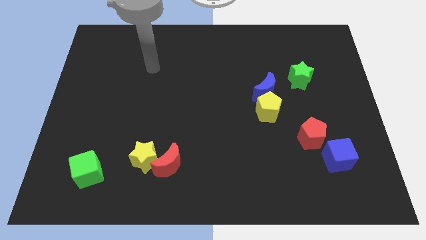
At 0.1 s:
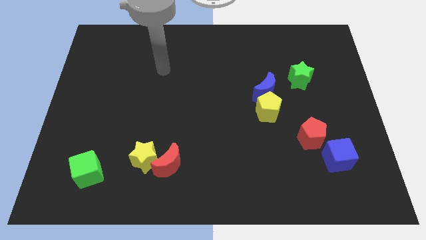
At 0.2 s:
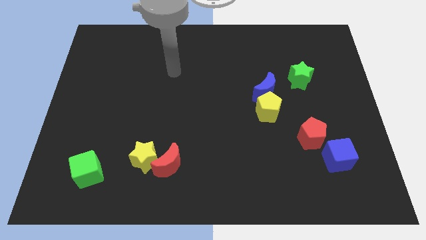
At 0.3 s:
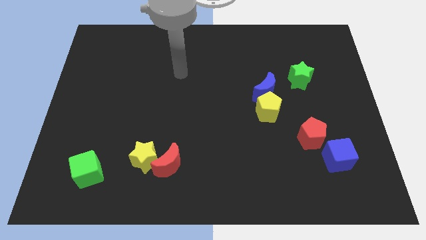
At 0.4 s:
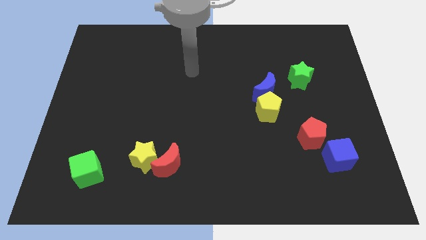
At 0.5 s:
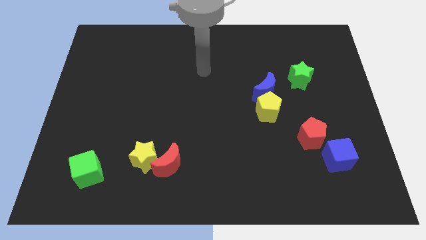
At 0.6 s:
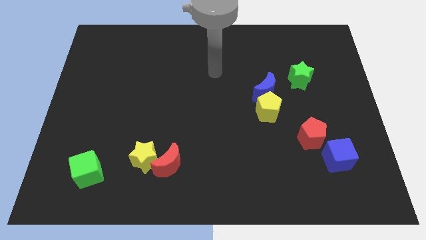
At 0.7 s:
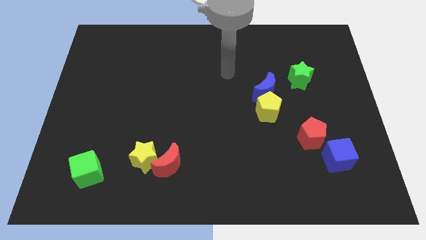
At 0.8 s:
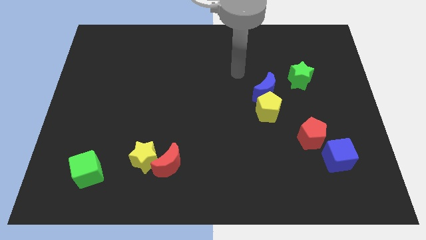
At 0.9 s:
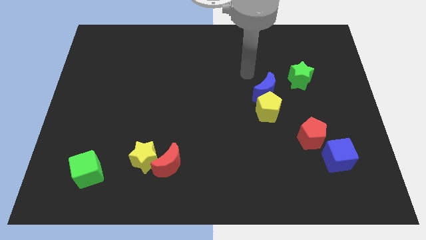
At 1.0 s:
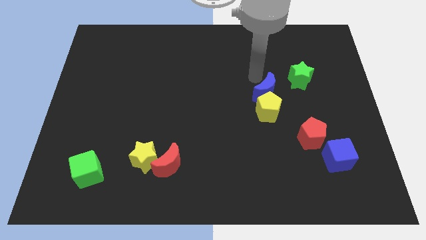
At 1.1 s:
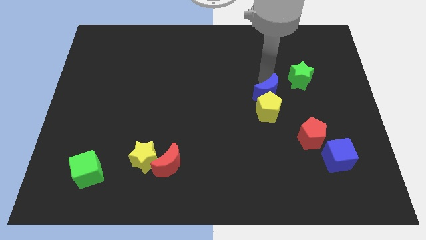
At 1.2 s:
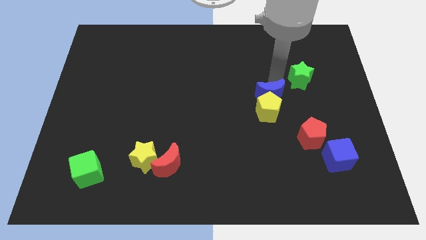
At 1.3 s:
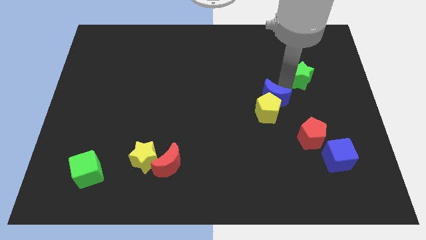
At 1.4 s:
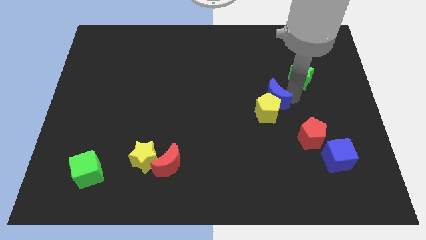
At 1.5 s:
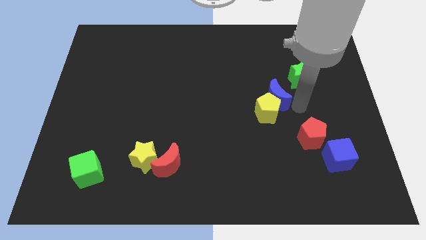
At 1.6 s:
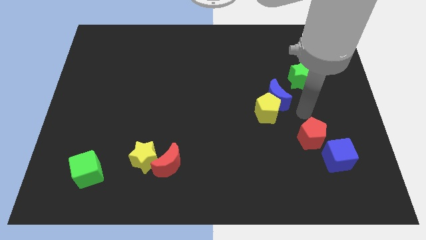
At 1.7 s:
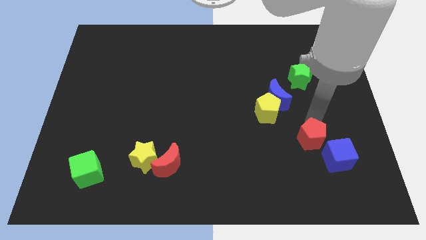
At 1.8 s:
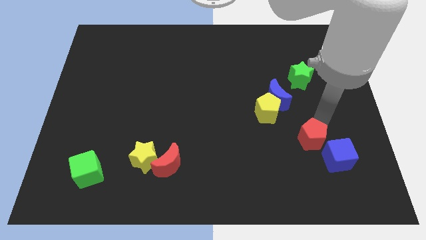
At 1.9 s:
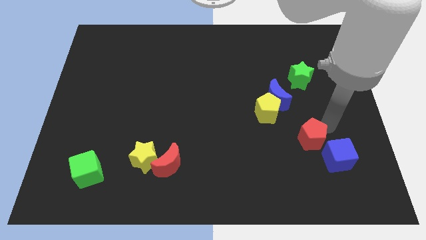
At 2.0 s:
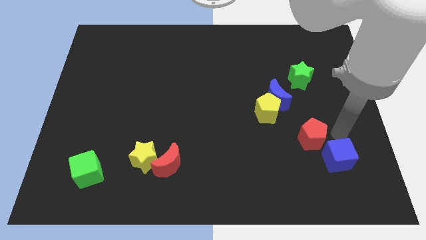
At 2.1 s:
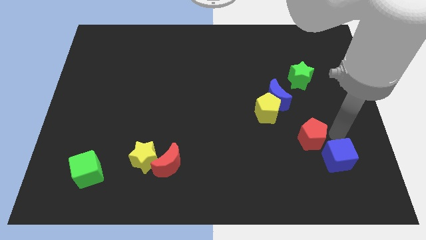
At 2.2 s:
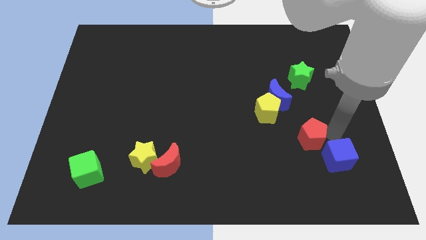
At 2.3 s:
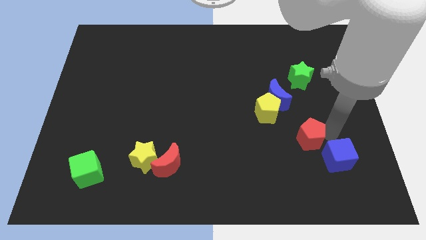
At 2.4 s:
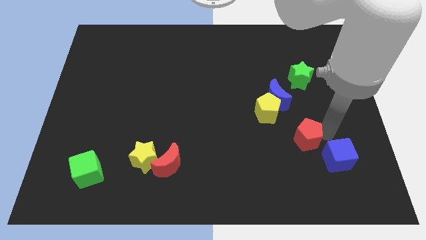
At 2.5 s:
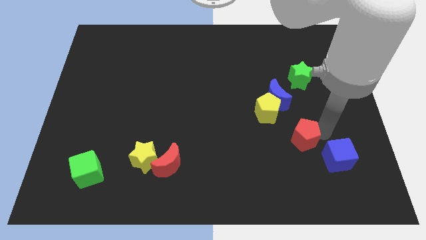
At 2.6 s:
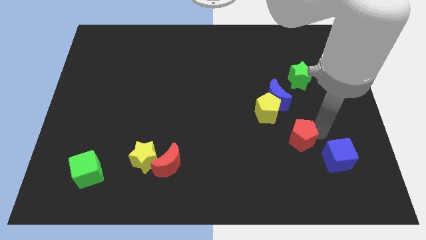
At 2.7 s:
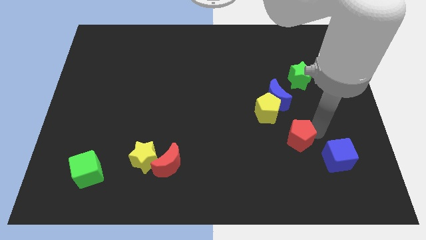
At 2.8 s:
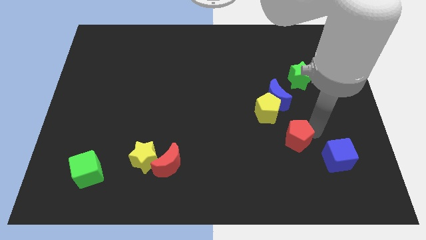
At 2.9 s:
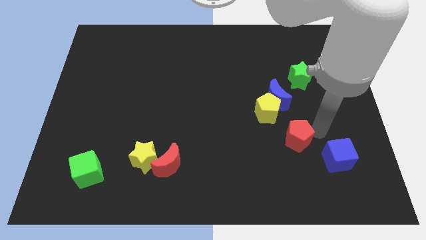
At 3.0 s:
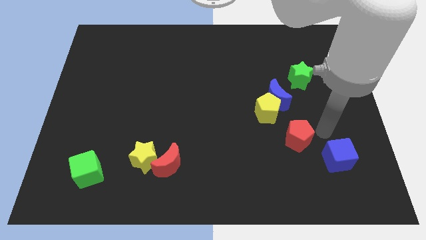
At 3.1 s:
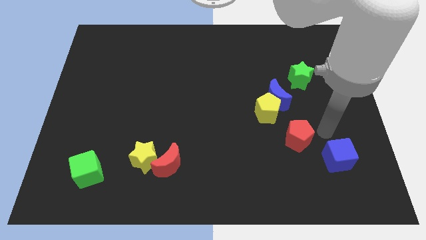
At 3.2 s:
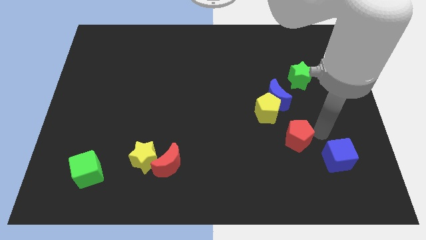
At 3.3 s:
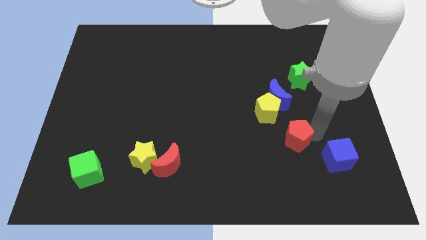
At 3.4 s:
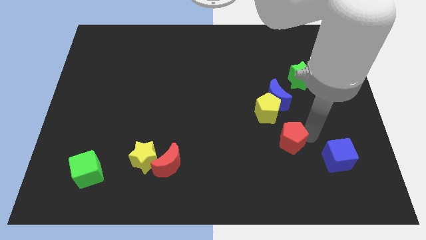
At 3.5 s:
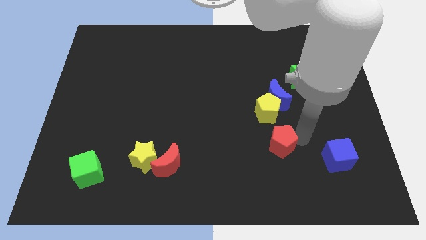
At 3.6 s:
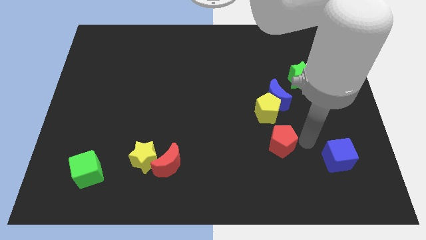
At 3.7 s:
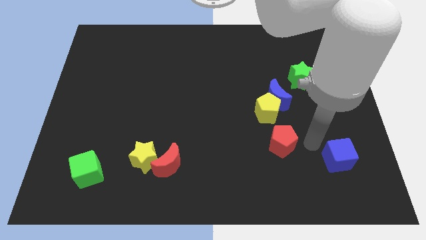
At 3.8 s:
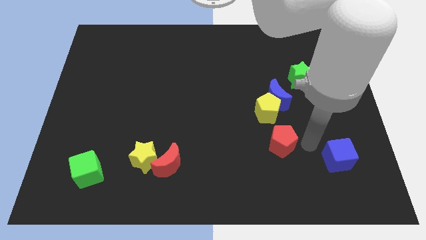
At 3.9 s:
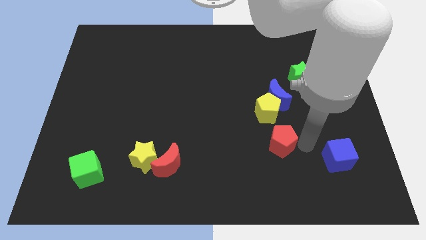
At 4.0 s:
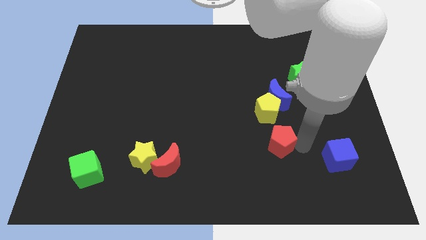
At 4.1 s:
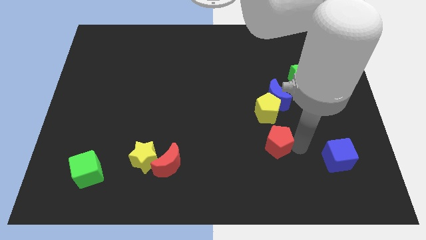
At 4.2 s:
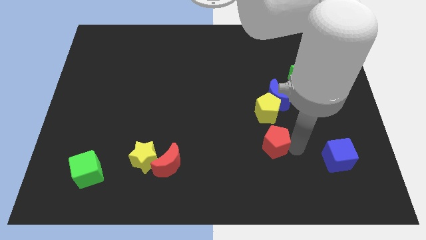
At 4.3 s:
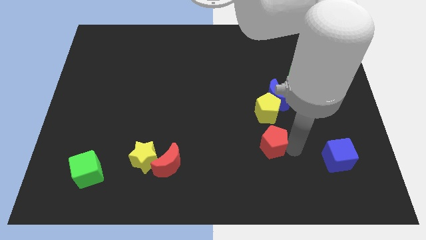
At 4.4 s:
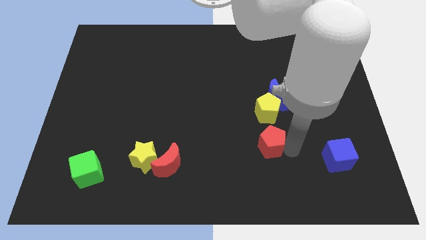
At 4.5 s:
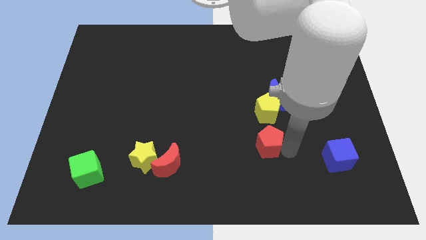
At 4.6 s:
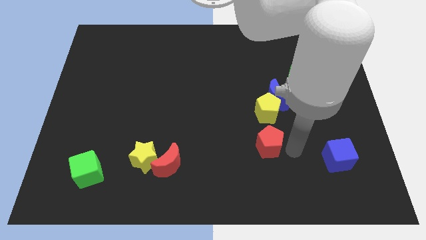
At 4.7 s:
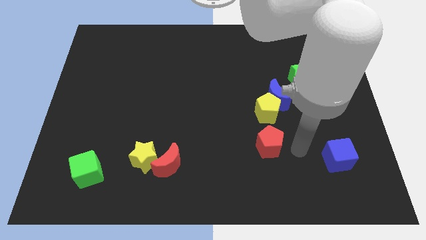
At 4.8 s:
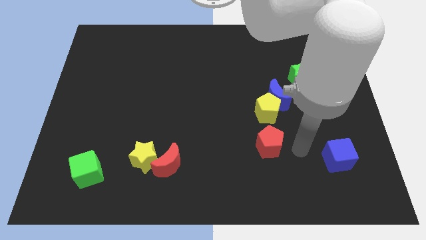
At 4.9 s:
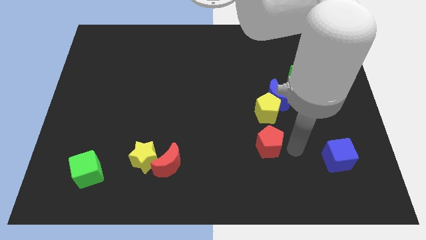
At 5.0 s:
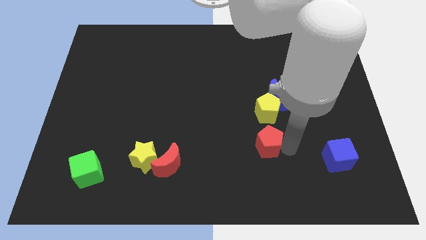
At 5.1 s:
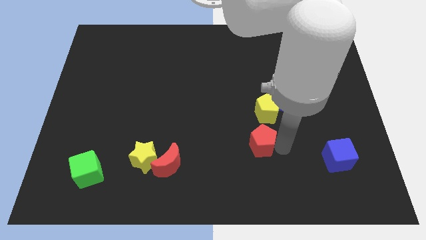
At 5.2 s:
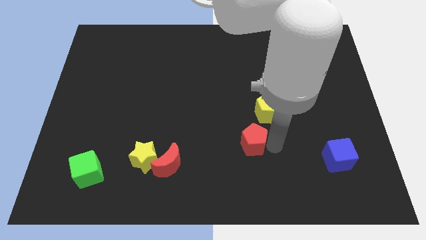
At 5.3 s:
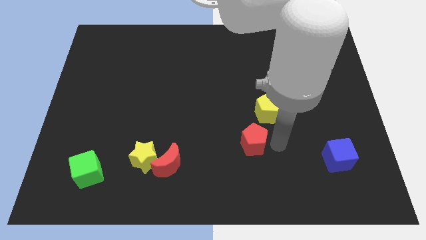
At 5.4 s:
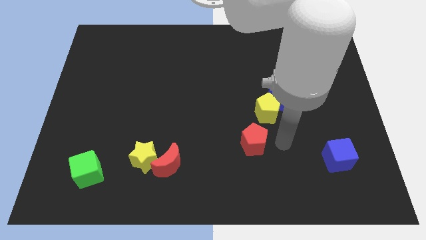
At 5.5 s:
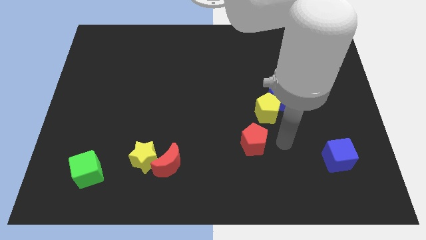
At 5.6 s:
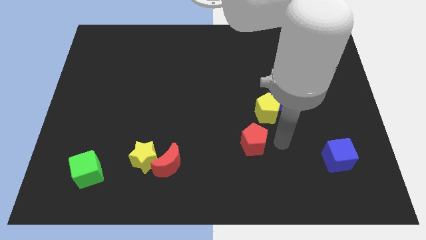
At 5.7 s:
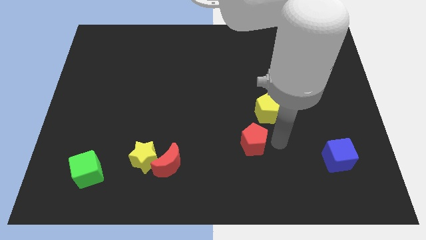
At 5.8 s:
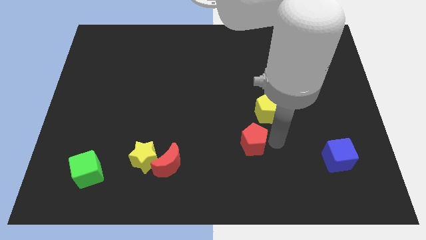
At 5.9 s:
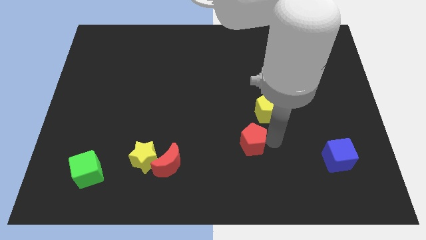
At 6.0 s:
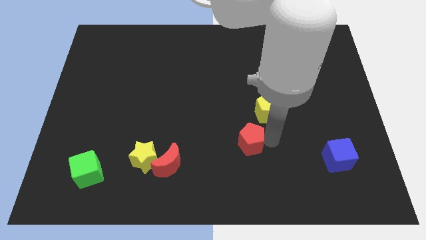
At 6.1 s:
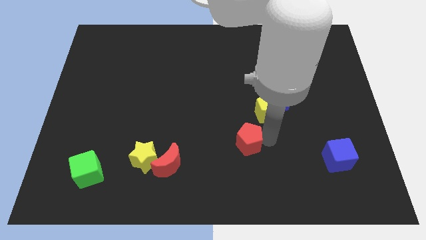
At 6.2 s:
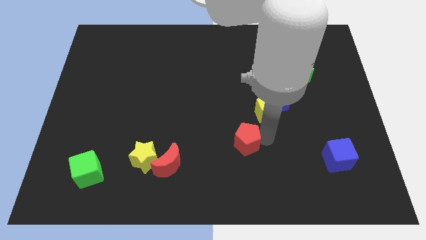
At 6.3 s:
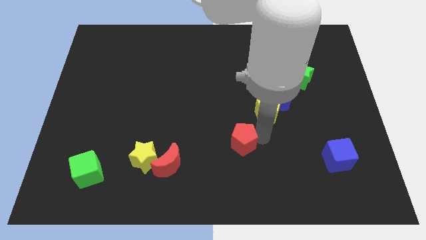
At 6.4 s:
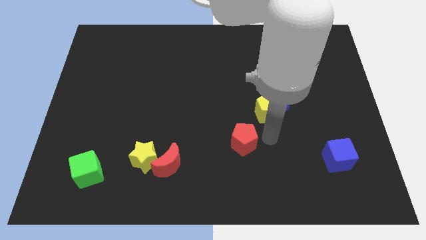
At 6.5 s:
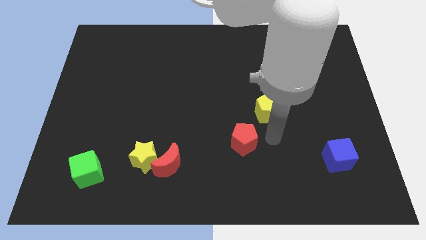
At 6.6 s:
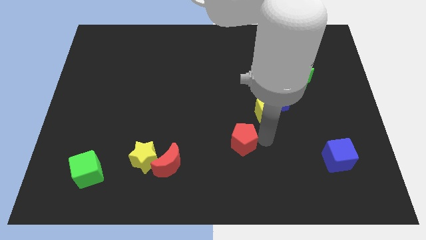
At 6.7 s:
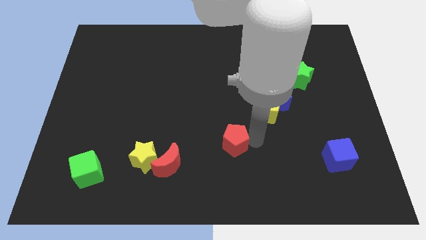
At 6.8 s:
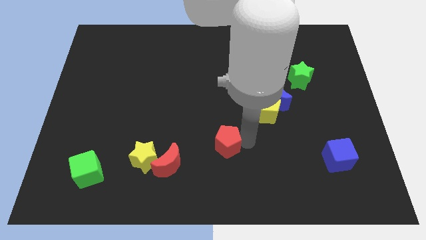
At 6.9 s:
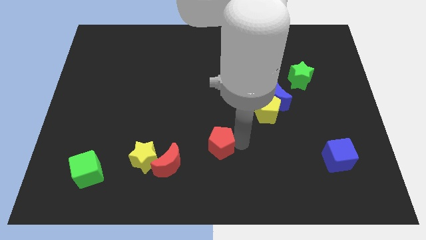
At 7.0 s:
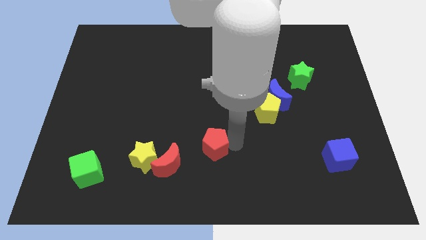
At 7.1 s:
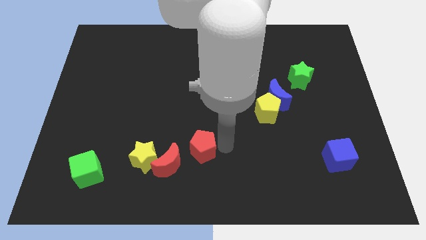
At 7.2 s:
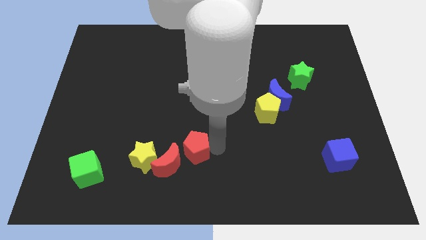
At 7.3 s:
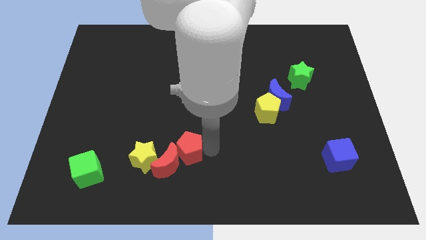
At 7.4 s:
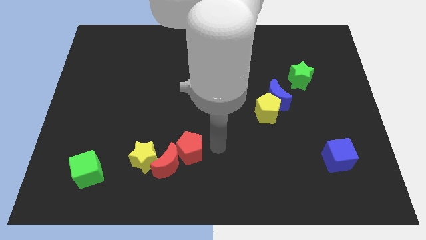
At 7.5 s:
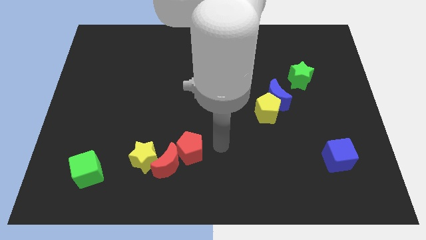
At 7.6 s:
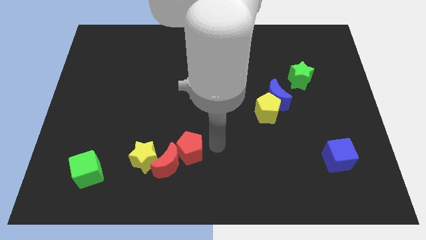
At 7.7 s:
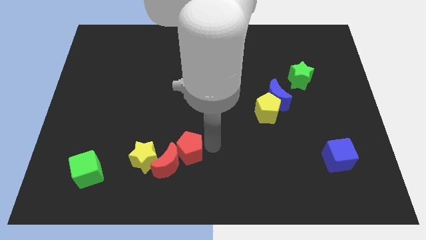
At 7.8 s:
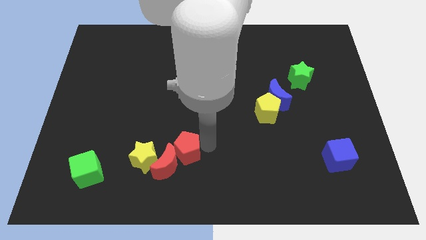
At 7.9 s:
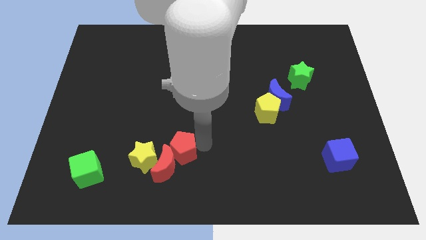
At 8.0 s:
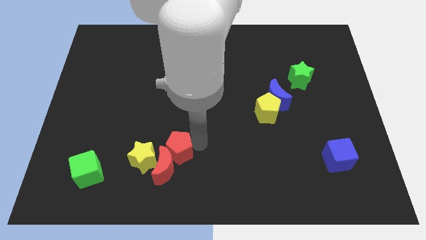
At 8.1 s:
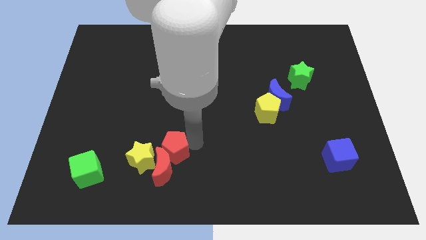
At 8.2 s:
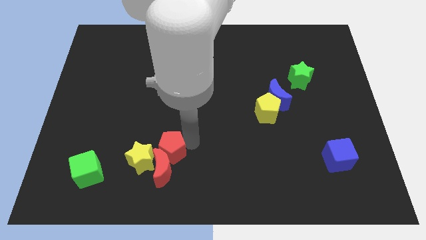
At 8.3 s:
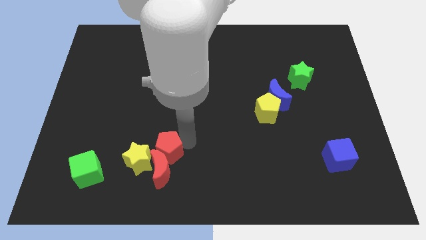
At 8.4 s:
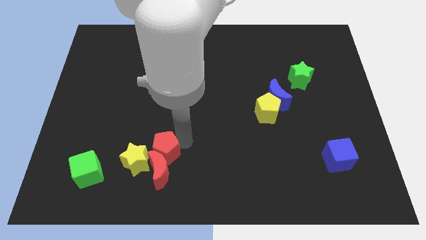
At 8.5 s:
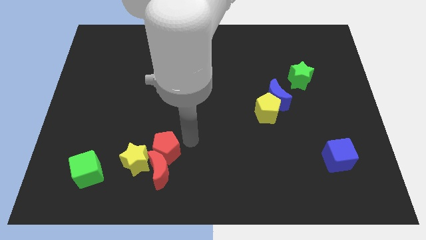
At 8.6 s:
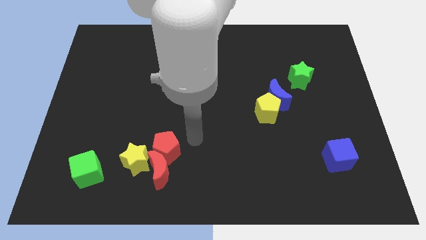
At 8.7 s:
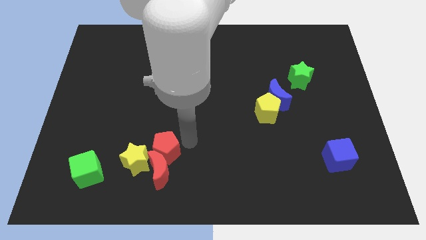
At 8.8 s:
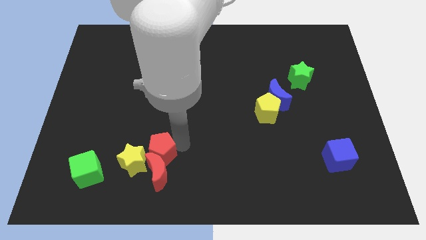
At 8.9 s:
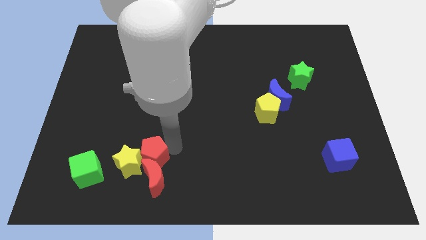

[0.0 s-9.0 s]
move the red pentagon to the yellow star
